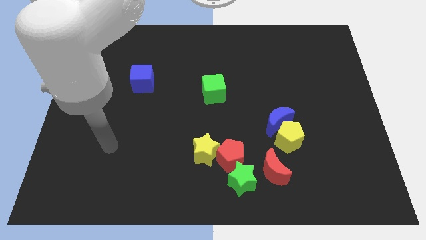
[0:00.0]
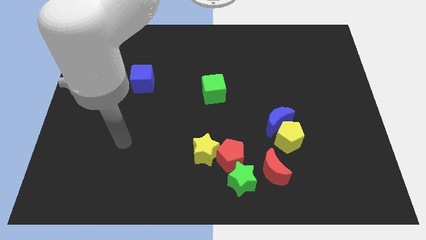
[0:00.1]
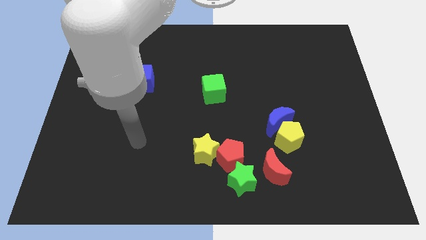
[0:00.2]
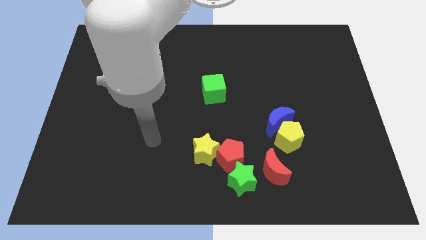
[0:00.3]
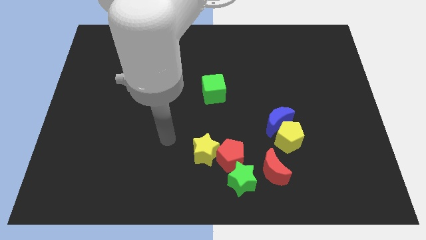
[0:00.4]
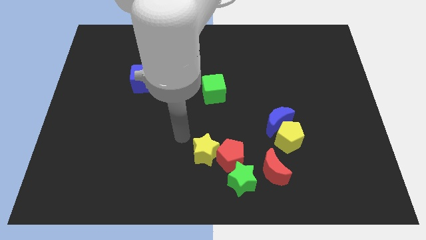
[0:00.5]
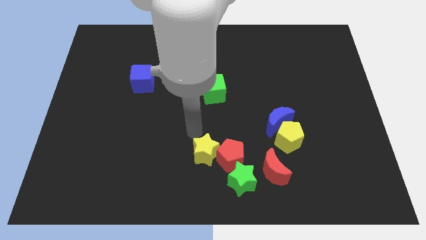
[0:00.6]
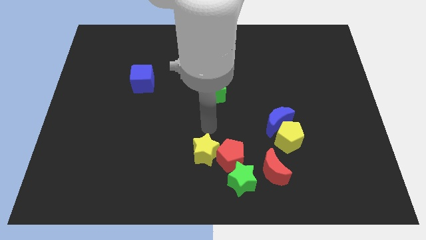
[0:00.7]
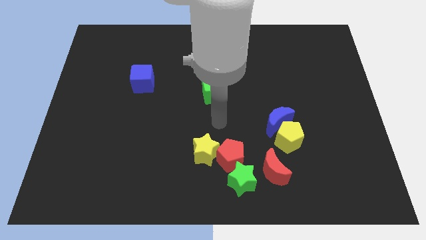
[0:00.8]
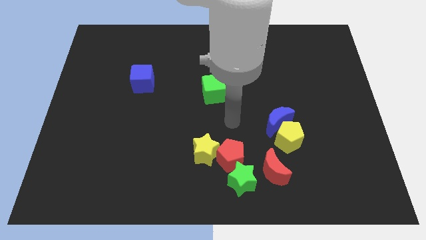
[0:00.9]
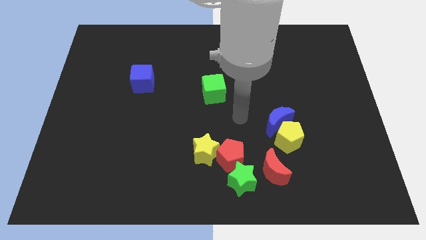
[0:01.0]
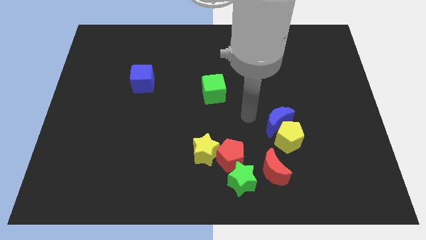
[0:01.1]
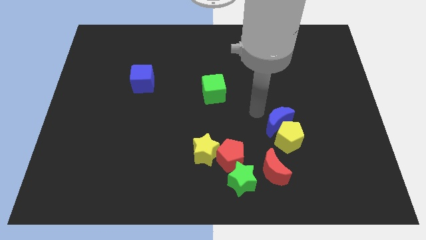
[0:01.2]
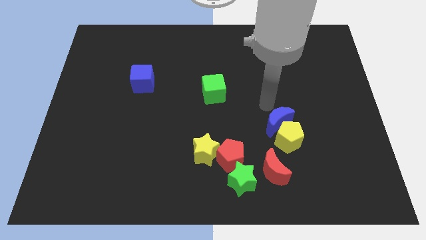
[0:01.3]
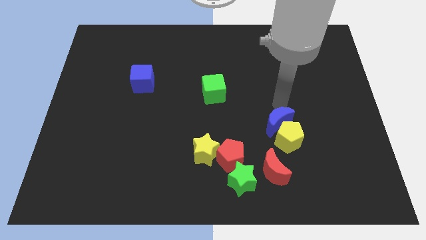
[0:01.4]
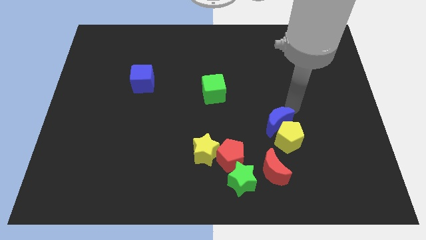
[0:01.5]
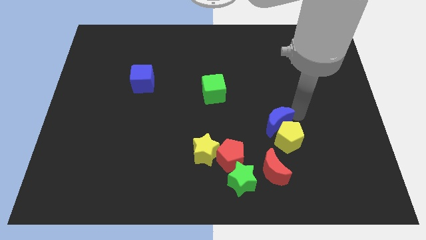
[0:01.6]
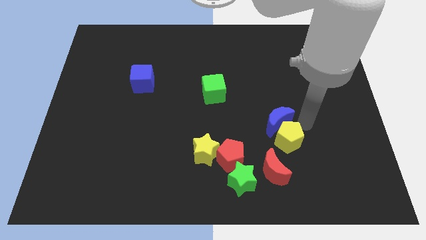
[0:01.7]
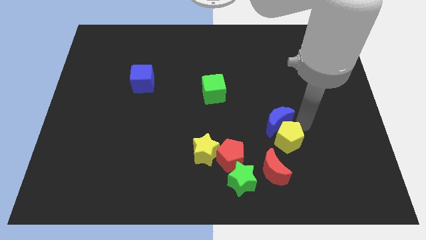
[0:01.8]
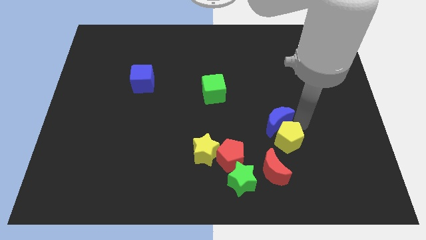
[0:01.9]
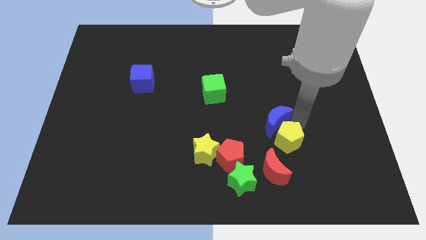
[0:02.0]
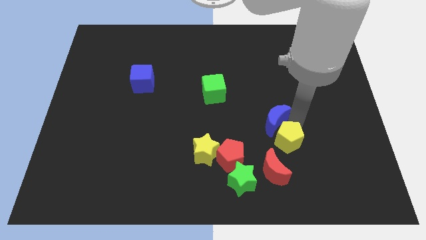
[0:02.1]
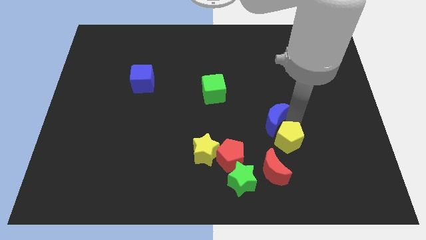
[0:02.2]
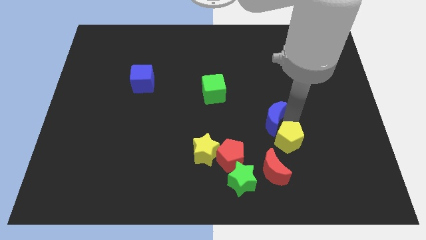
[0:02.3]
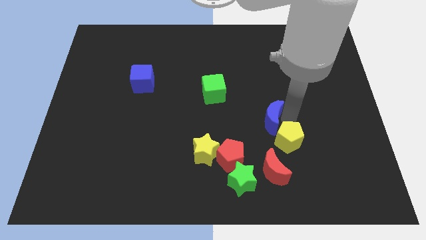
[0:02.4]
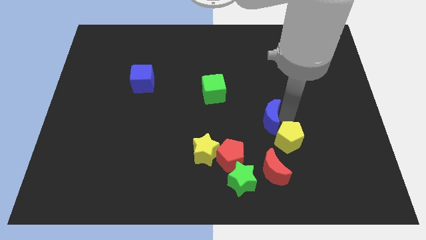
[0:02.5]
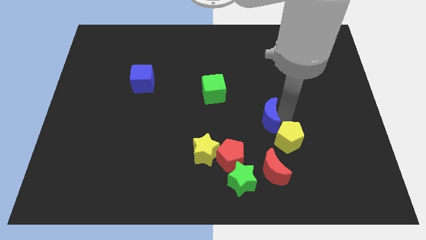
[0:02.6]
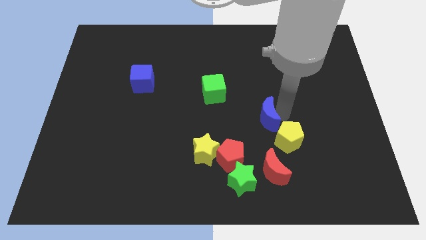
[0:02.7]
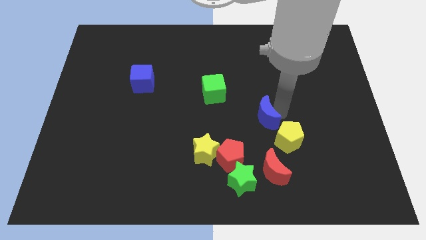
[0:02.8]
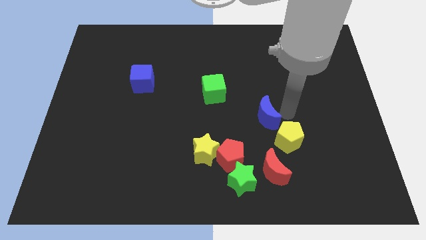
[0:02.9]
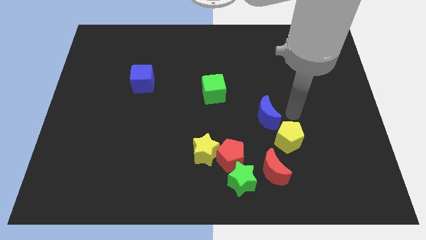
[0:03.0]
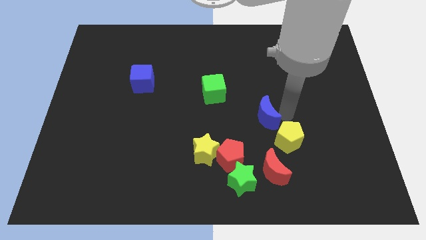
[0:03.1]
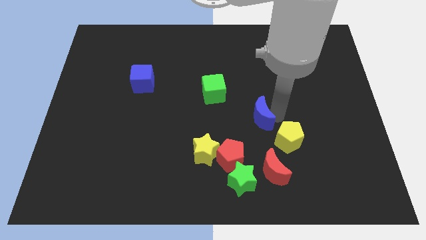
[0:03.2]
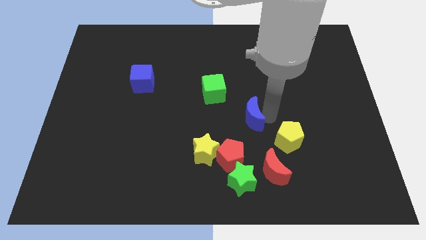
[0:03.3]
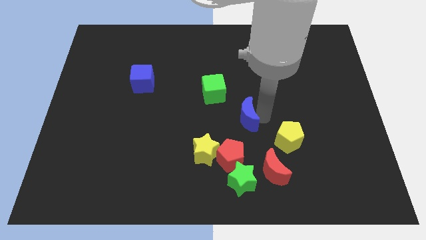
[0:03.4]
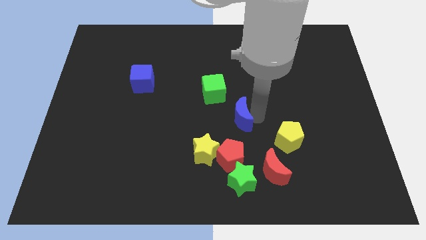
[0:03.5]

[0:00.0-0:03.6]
slide the blue moon slightly left

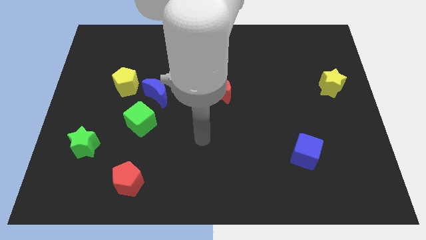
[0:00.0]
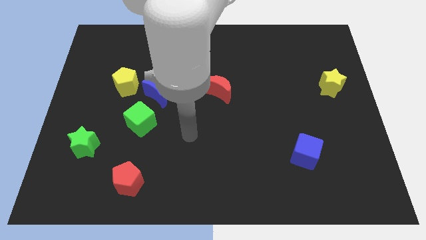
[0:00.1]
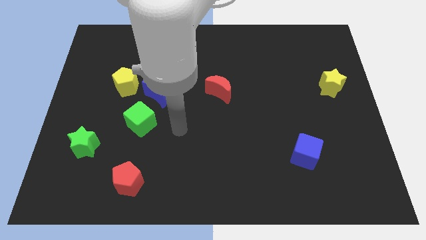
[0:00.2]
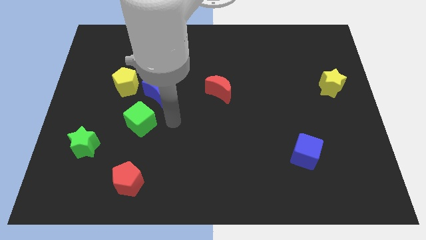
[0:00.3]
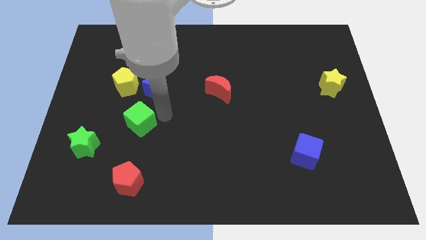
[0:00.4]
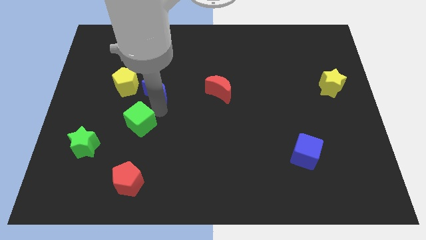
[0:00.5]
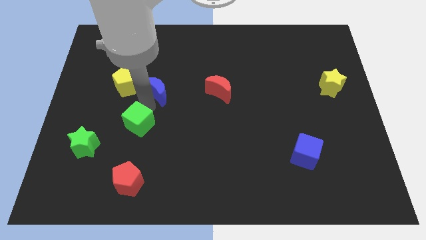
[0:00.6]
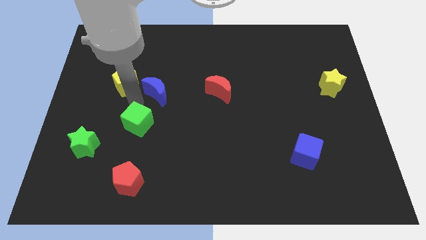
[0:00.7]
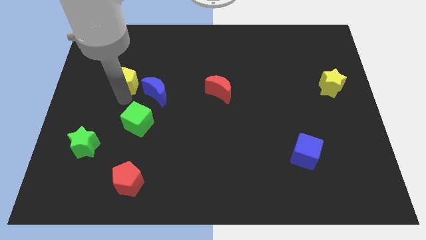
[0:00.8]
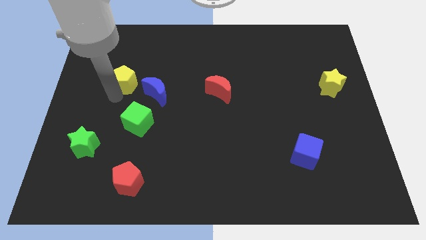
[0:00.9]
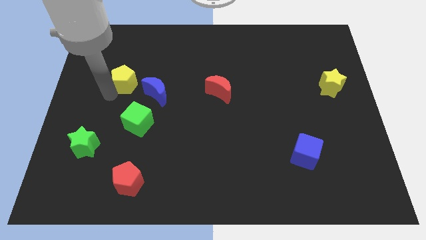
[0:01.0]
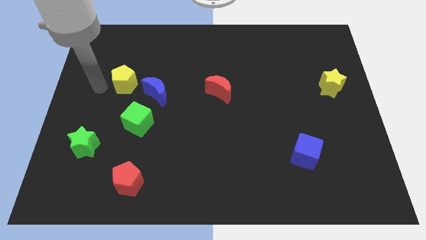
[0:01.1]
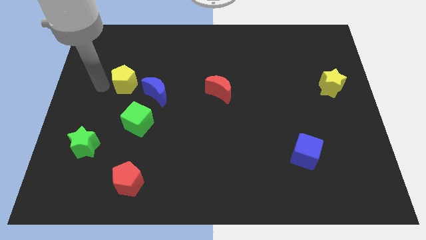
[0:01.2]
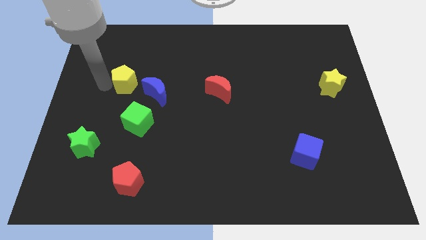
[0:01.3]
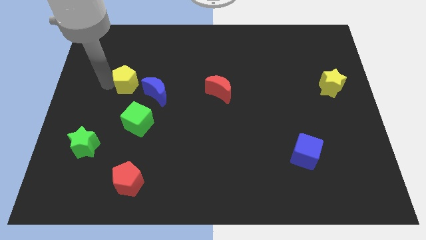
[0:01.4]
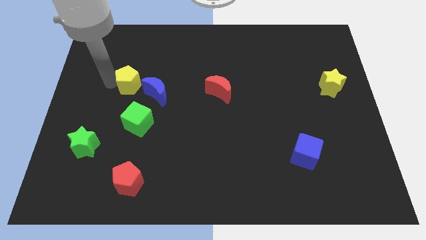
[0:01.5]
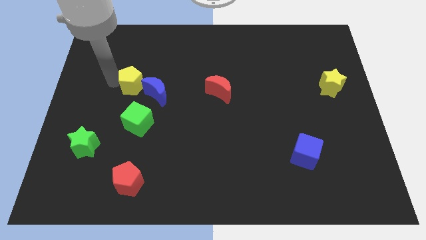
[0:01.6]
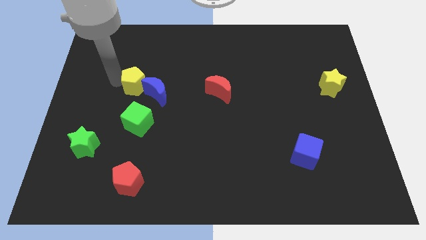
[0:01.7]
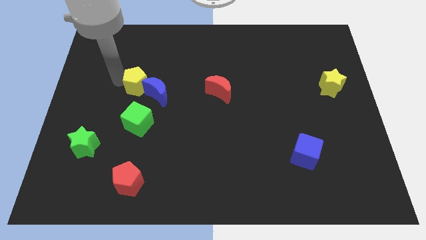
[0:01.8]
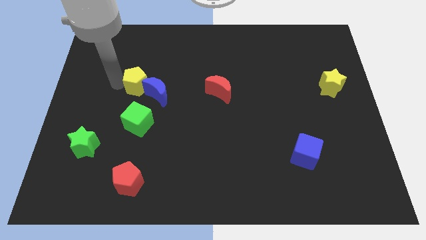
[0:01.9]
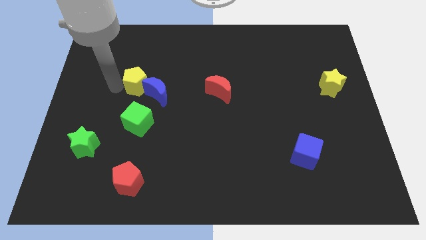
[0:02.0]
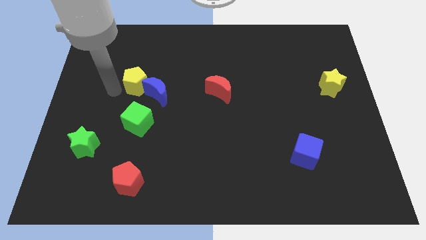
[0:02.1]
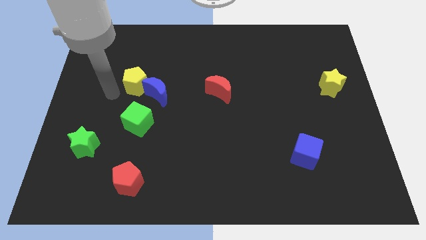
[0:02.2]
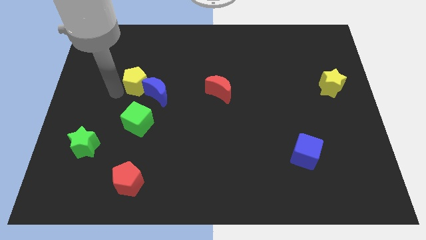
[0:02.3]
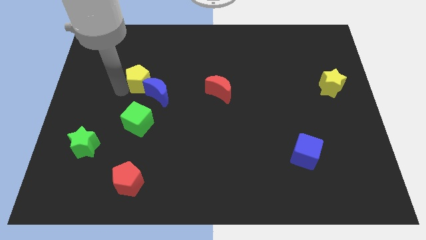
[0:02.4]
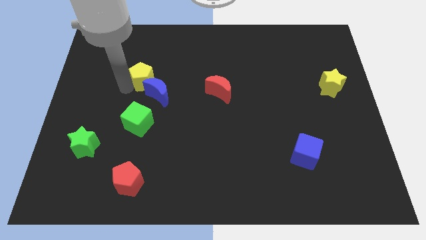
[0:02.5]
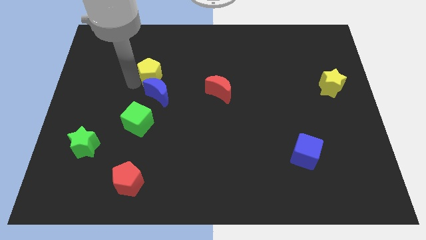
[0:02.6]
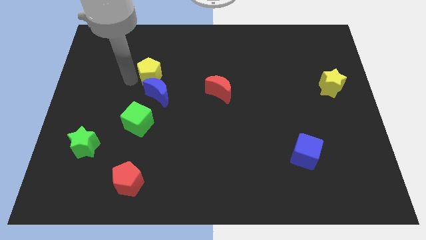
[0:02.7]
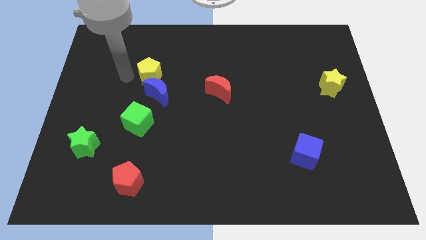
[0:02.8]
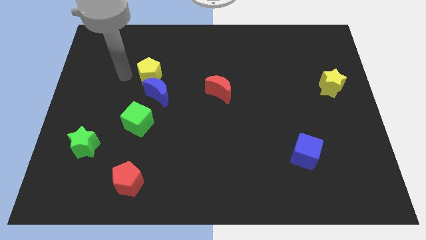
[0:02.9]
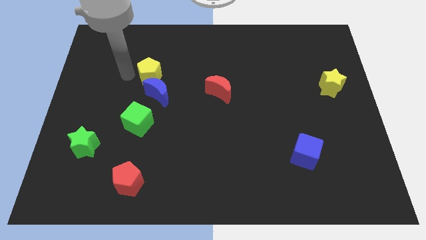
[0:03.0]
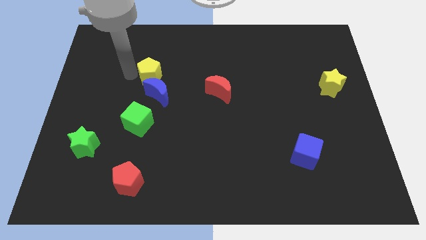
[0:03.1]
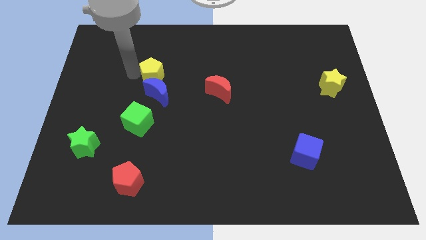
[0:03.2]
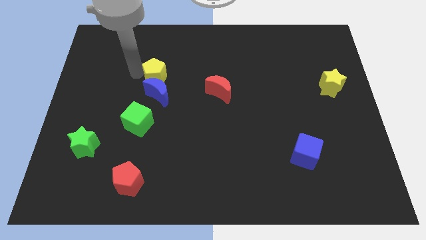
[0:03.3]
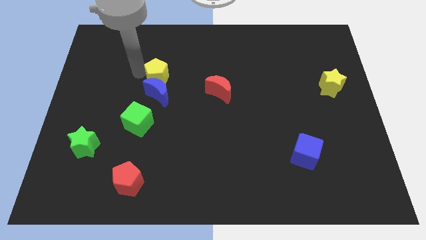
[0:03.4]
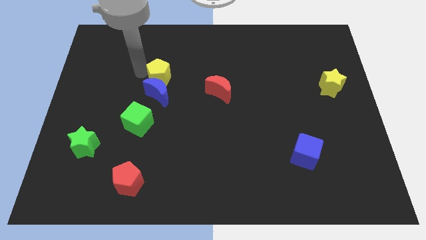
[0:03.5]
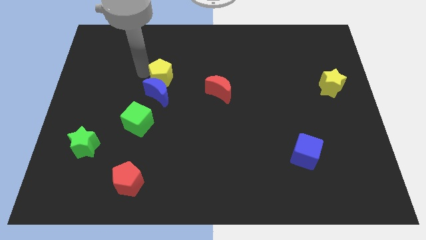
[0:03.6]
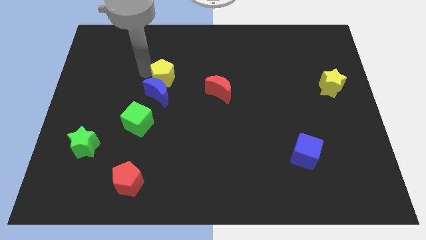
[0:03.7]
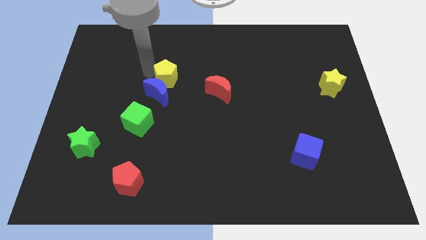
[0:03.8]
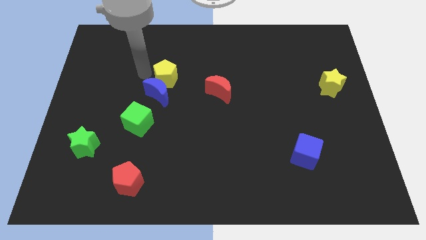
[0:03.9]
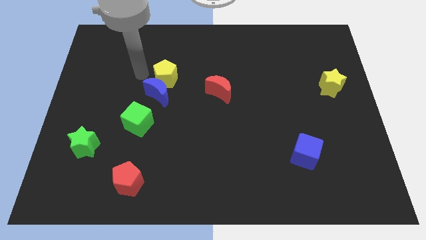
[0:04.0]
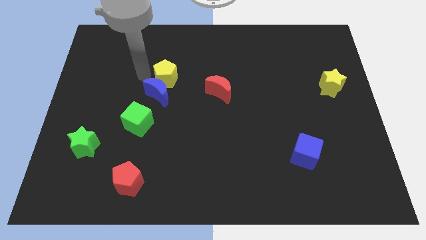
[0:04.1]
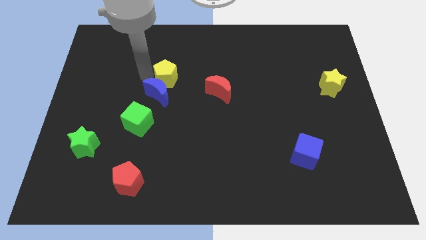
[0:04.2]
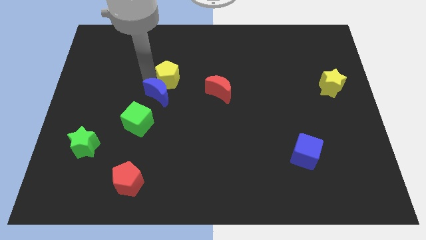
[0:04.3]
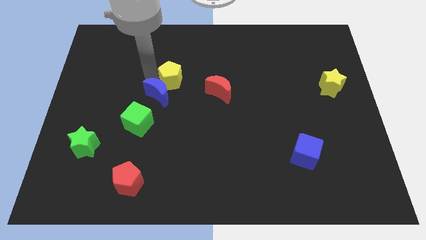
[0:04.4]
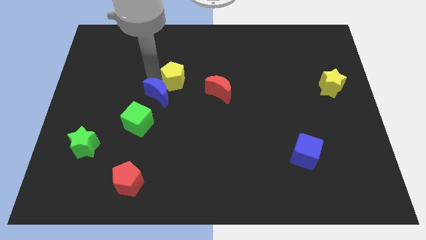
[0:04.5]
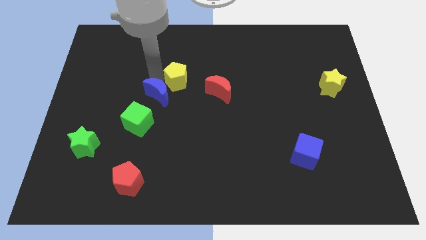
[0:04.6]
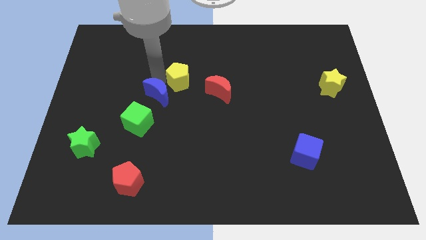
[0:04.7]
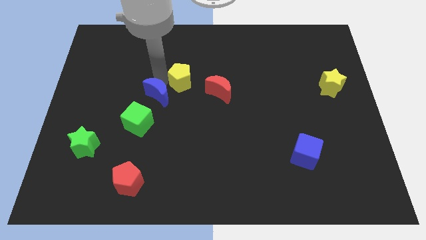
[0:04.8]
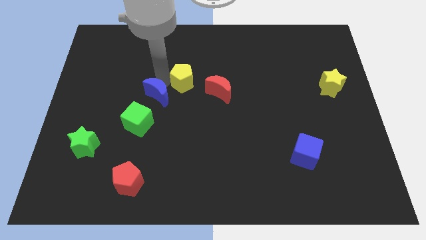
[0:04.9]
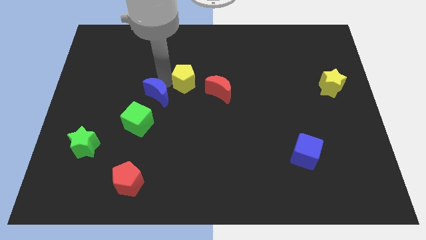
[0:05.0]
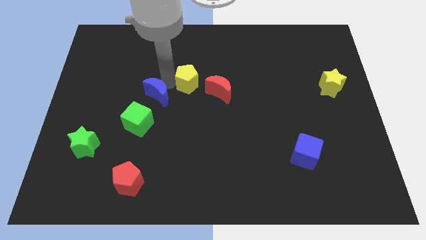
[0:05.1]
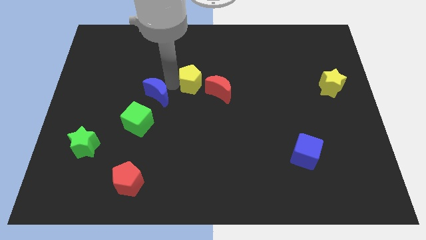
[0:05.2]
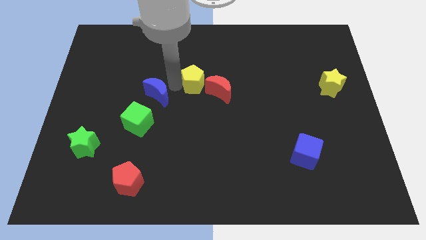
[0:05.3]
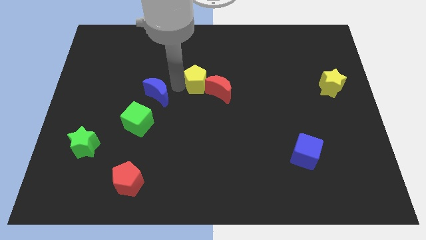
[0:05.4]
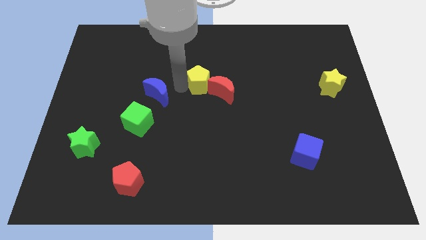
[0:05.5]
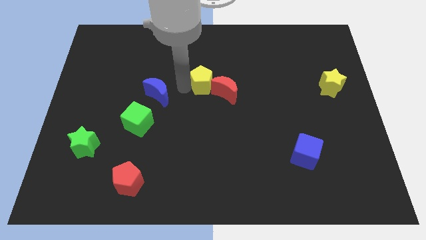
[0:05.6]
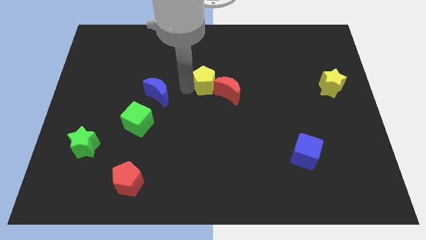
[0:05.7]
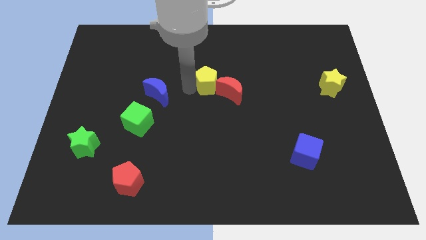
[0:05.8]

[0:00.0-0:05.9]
push the yellow pentagon to the right
